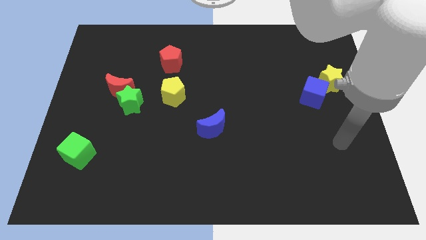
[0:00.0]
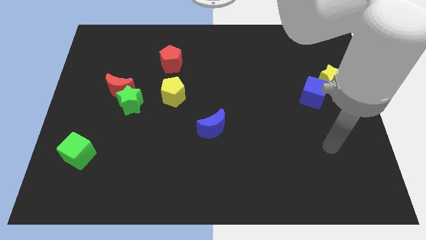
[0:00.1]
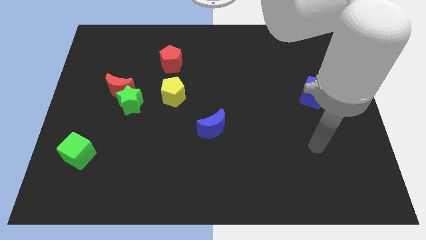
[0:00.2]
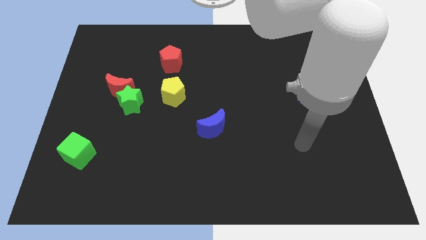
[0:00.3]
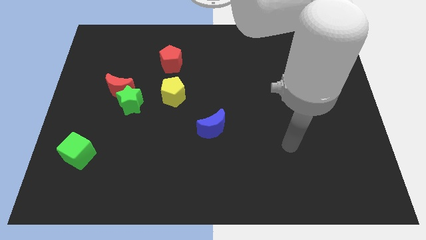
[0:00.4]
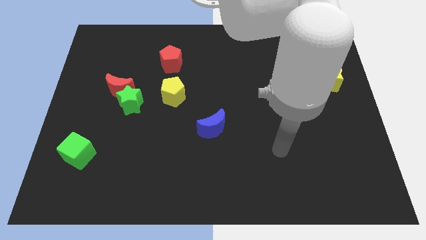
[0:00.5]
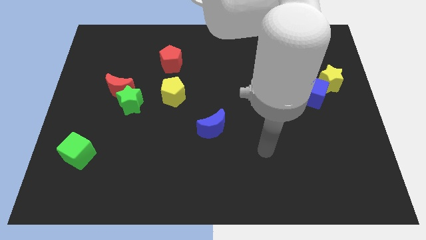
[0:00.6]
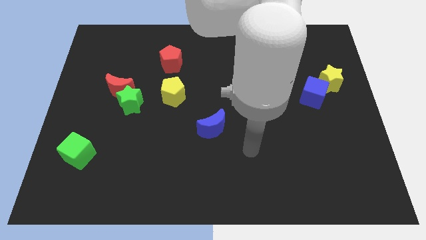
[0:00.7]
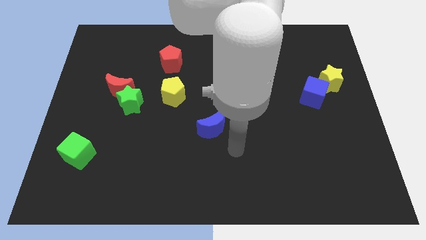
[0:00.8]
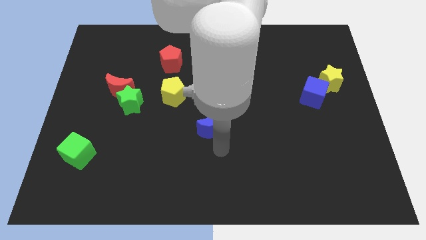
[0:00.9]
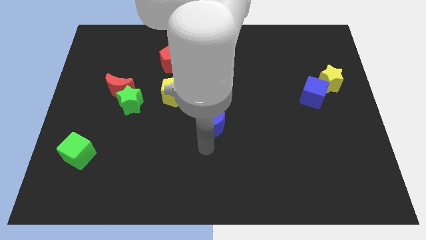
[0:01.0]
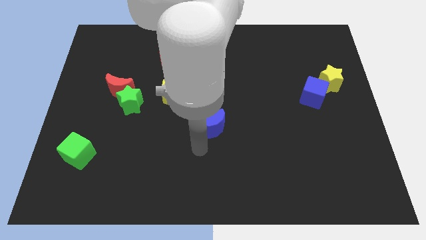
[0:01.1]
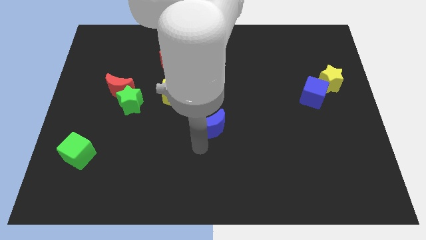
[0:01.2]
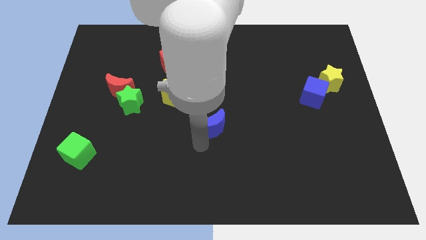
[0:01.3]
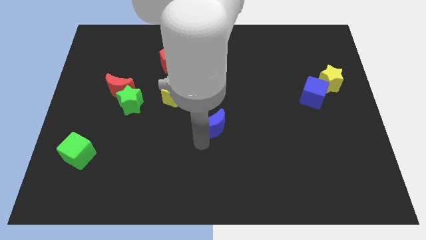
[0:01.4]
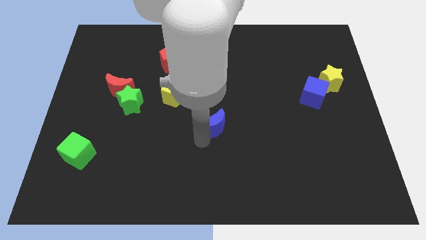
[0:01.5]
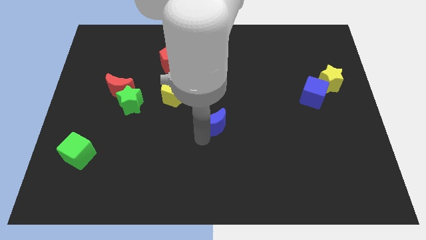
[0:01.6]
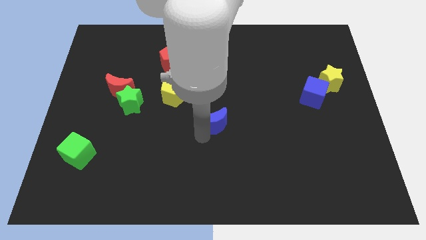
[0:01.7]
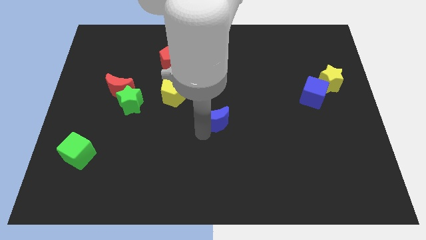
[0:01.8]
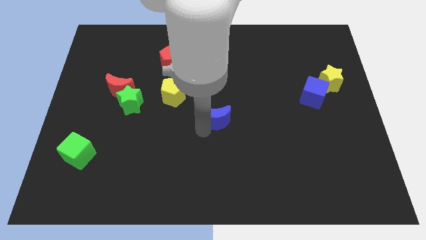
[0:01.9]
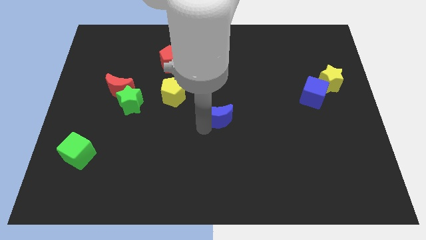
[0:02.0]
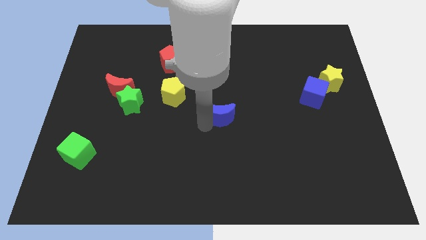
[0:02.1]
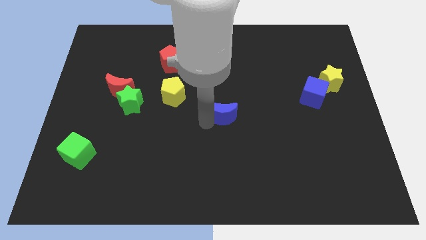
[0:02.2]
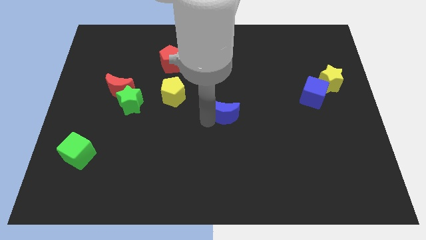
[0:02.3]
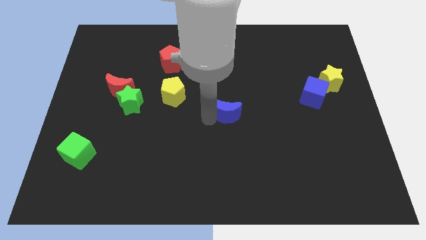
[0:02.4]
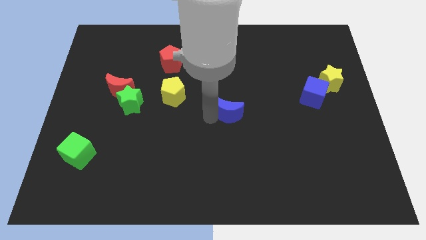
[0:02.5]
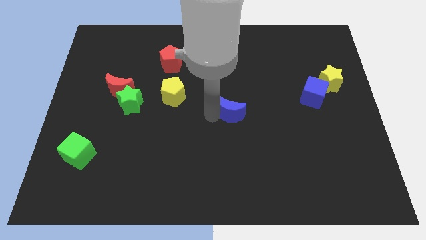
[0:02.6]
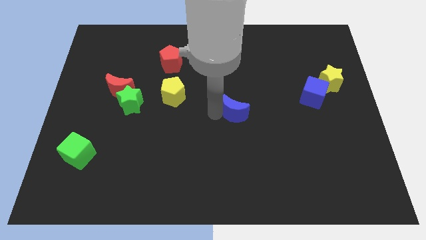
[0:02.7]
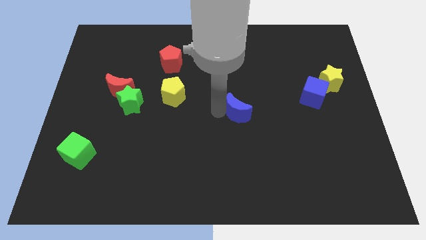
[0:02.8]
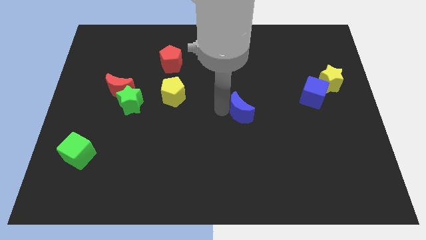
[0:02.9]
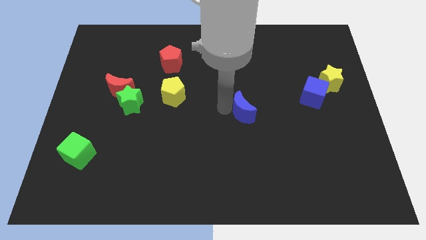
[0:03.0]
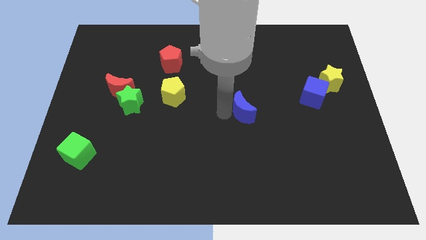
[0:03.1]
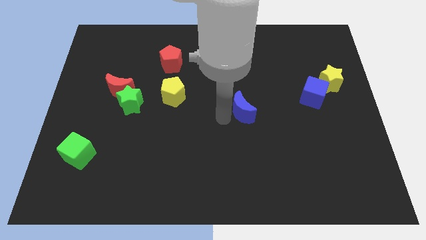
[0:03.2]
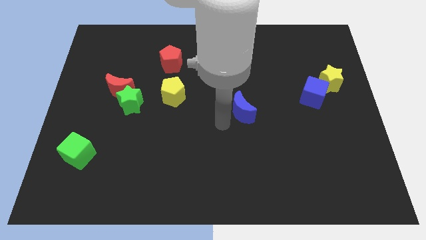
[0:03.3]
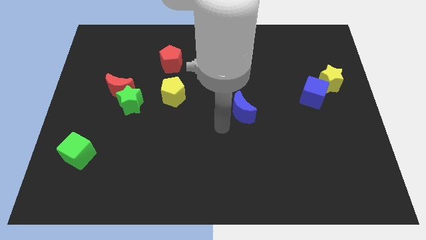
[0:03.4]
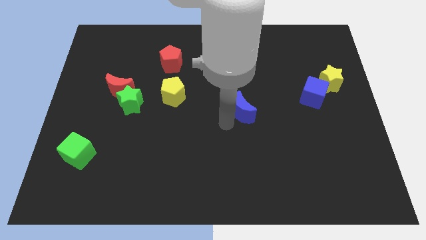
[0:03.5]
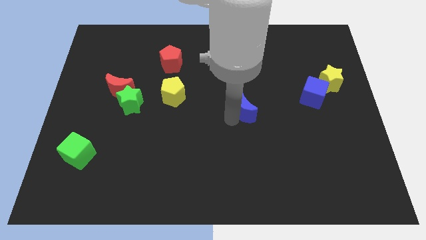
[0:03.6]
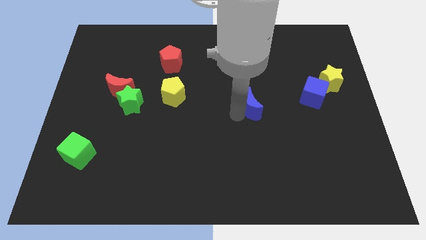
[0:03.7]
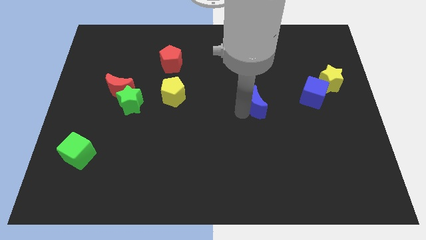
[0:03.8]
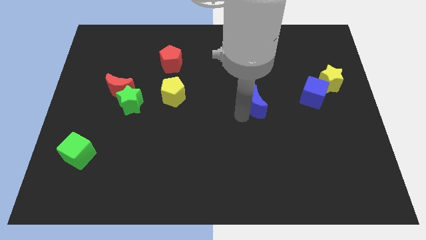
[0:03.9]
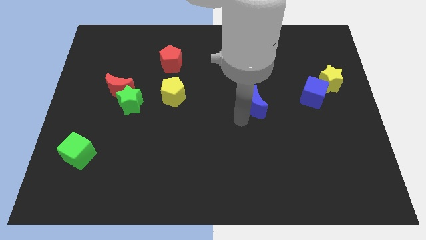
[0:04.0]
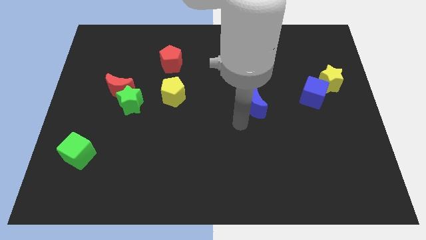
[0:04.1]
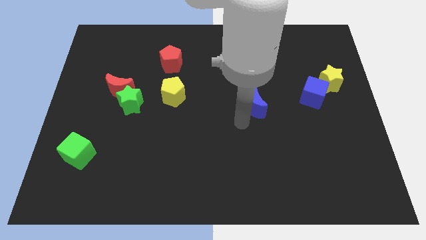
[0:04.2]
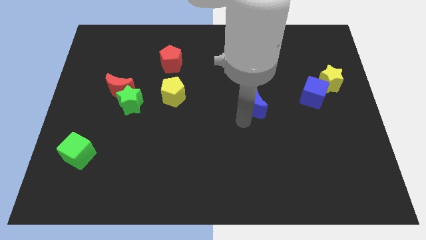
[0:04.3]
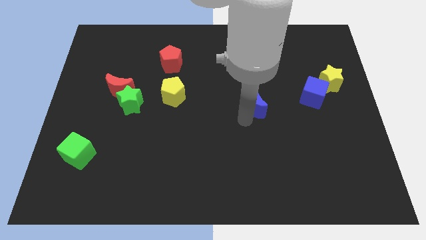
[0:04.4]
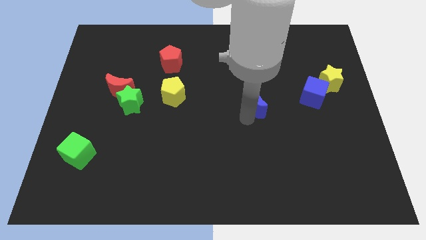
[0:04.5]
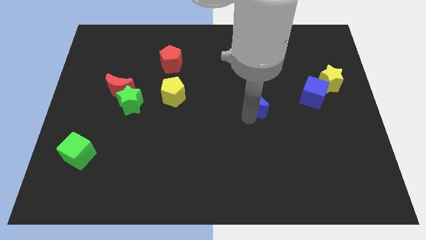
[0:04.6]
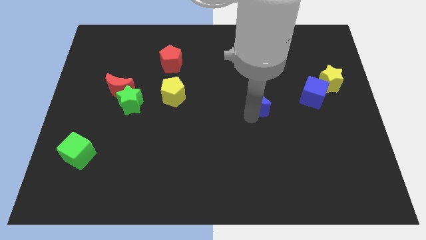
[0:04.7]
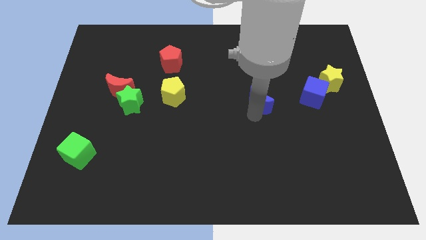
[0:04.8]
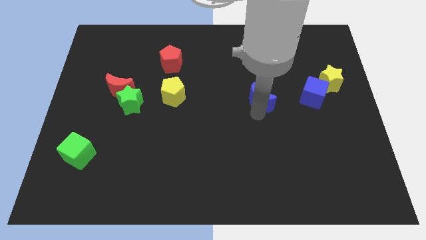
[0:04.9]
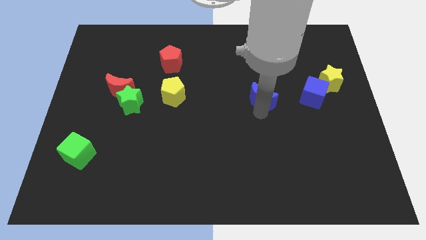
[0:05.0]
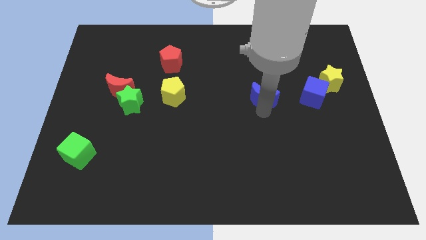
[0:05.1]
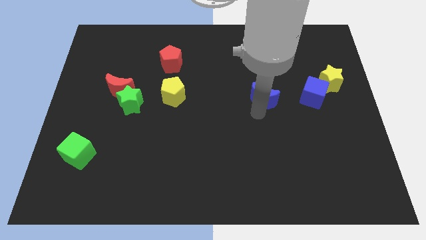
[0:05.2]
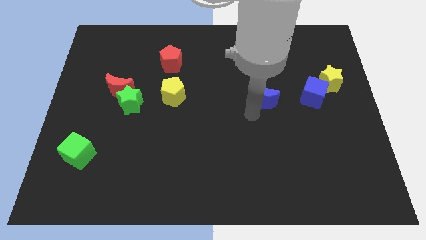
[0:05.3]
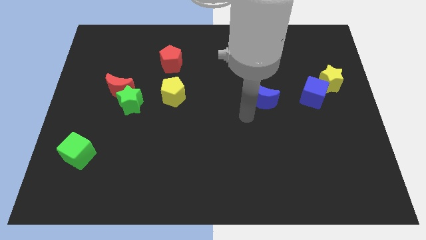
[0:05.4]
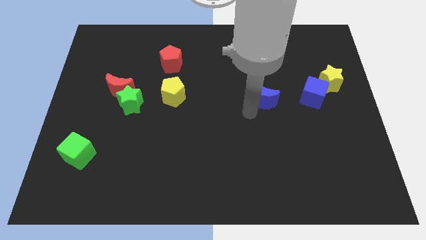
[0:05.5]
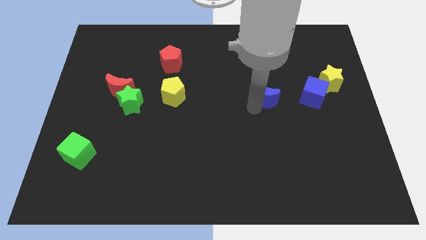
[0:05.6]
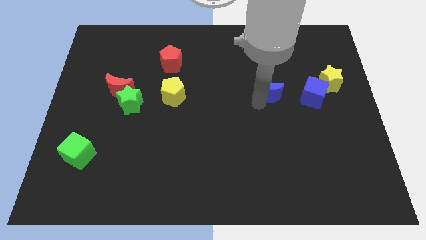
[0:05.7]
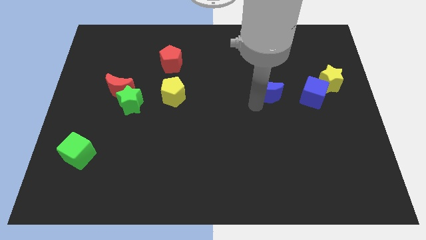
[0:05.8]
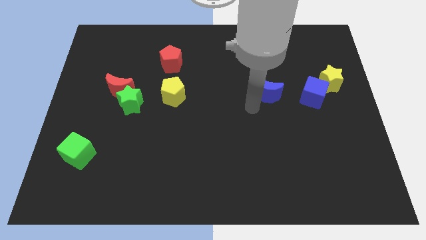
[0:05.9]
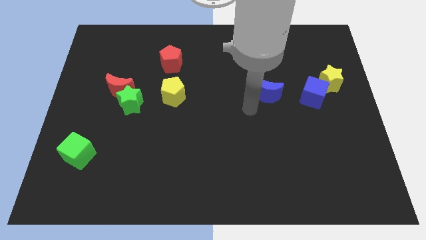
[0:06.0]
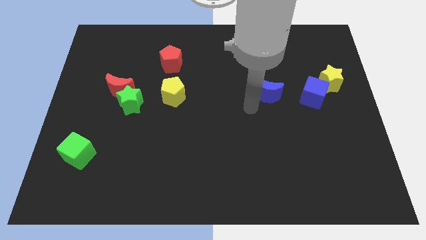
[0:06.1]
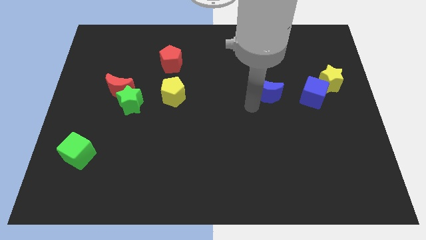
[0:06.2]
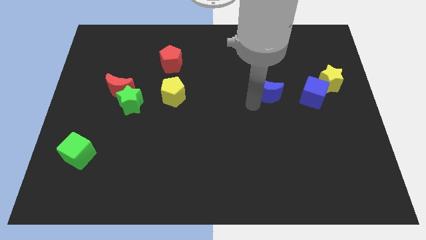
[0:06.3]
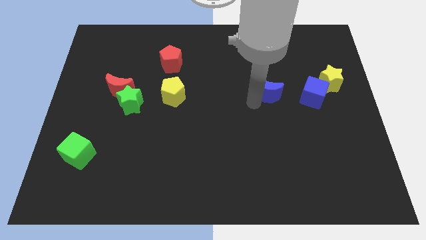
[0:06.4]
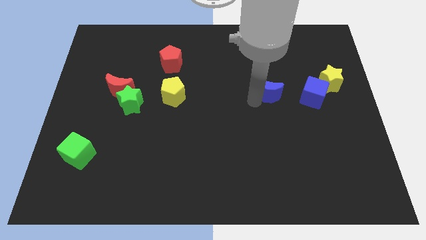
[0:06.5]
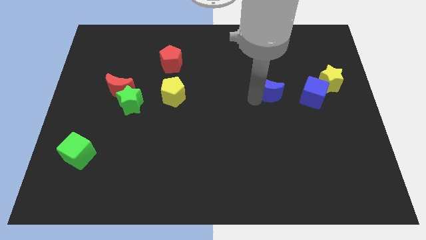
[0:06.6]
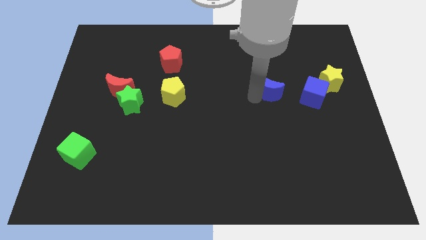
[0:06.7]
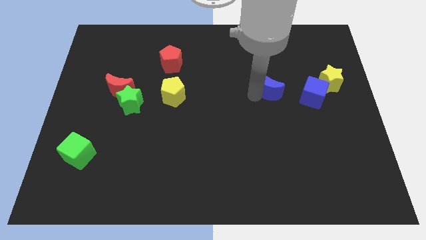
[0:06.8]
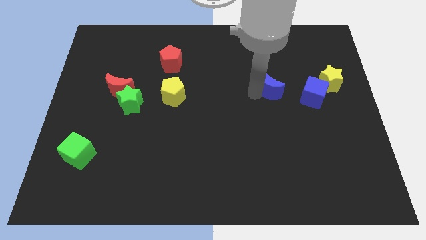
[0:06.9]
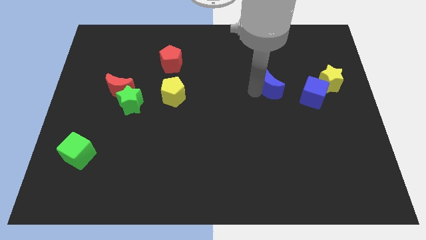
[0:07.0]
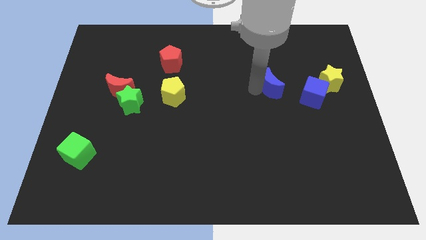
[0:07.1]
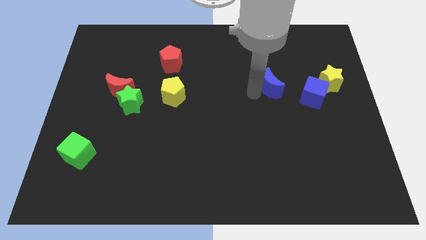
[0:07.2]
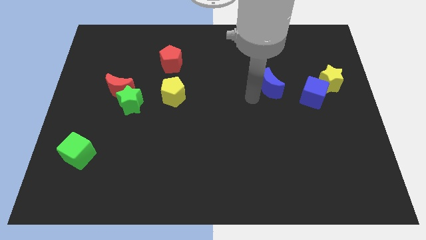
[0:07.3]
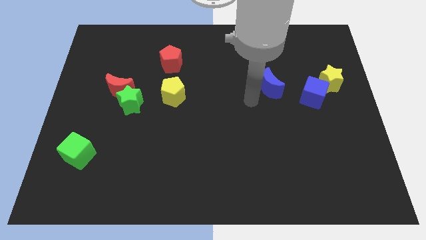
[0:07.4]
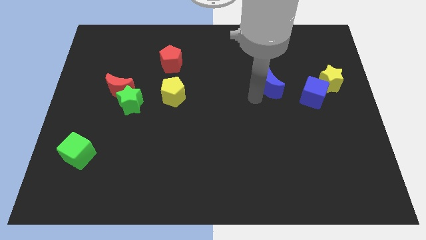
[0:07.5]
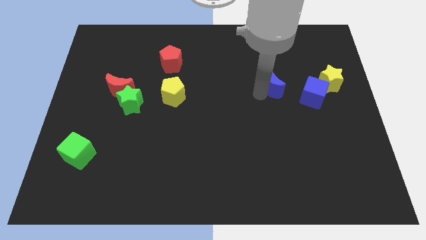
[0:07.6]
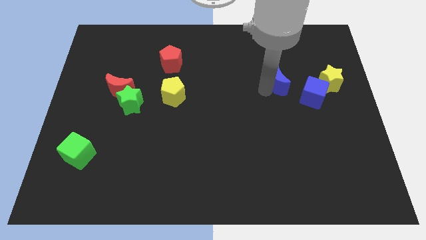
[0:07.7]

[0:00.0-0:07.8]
move the blue moon upwards and then to the right

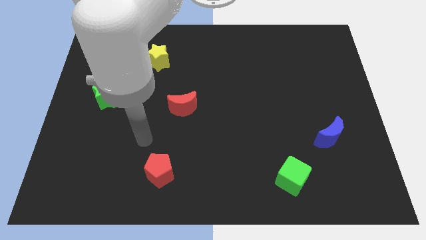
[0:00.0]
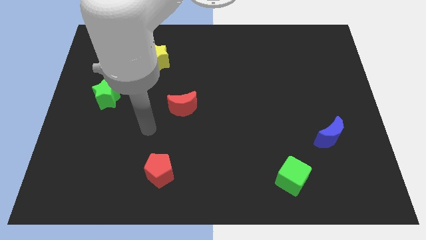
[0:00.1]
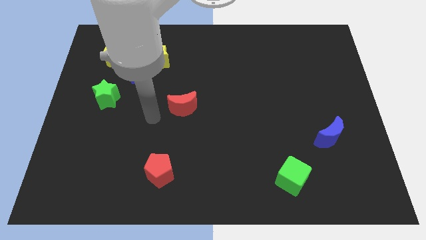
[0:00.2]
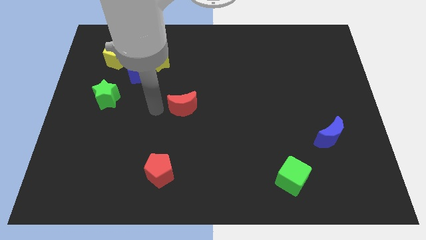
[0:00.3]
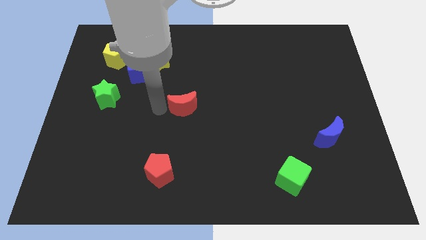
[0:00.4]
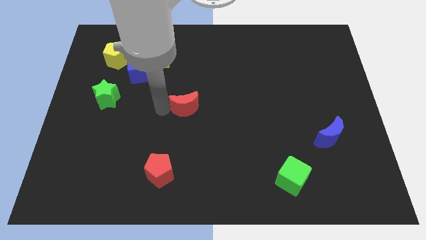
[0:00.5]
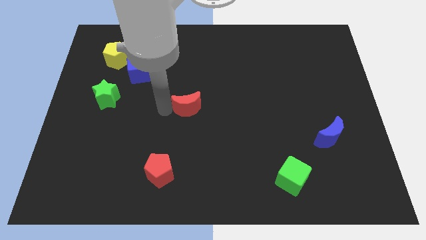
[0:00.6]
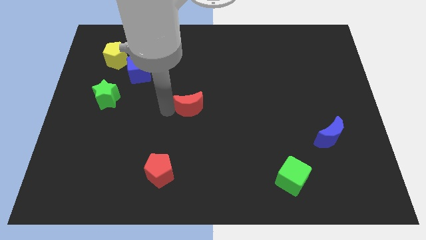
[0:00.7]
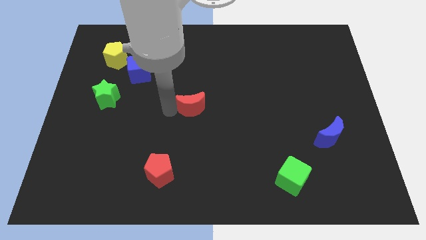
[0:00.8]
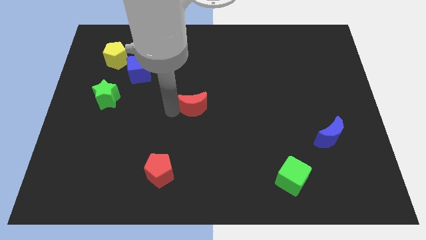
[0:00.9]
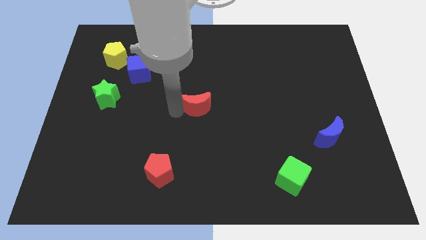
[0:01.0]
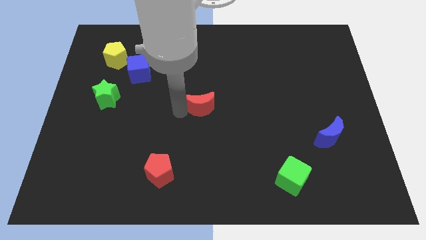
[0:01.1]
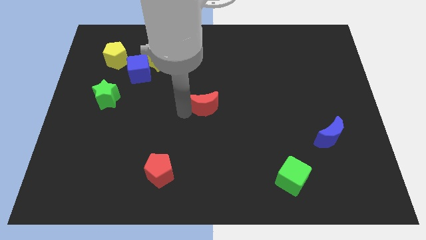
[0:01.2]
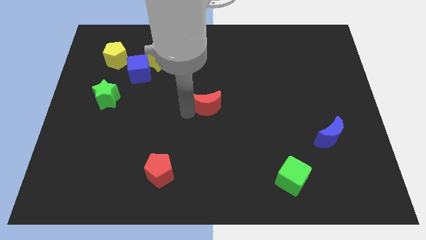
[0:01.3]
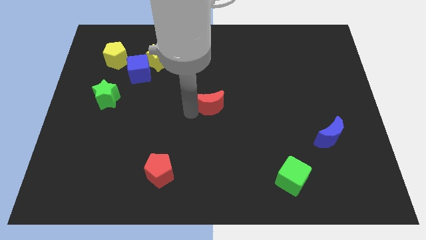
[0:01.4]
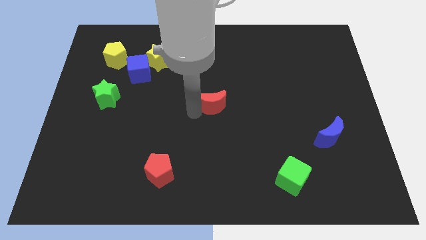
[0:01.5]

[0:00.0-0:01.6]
move the red moon right slightly
